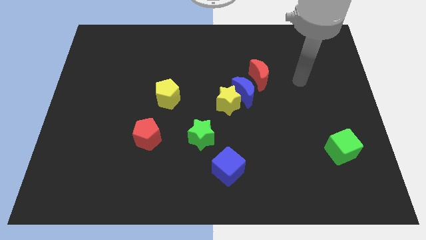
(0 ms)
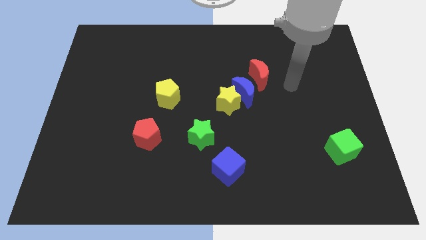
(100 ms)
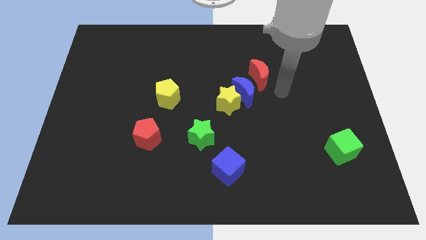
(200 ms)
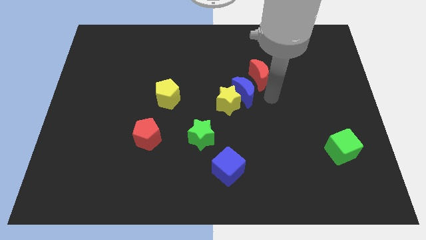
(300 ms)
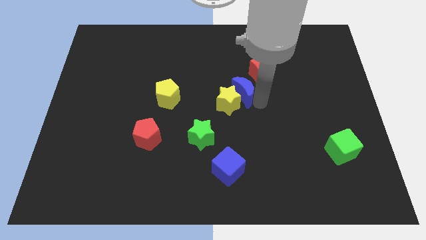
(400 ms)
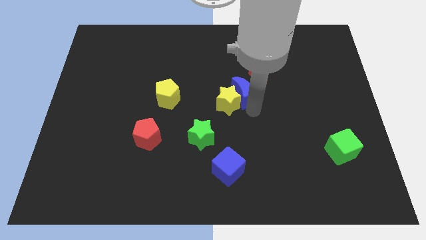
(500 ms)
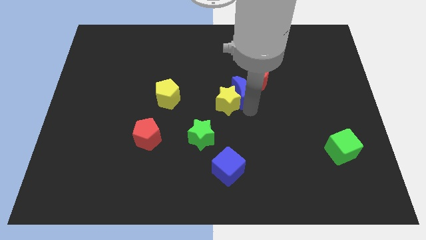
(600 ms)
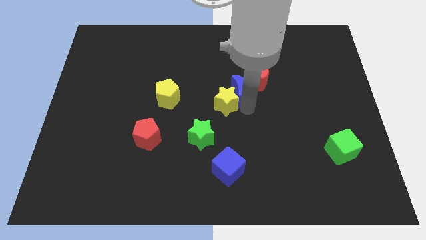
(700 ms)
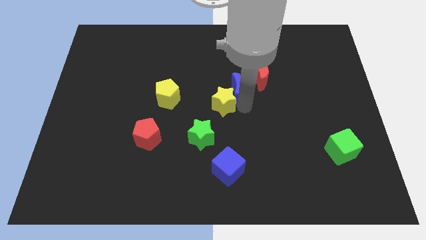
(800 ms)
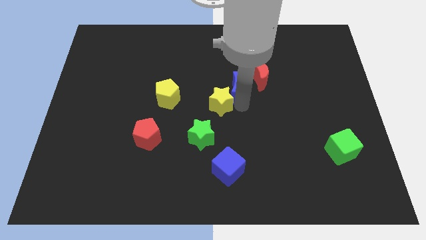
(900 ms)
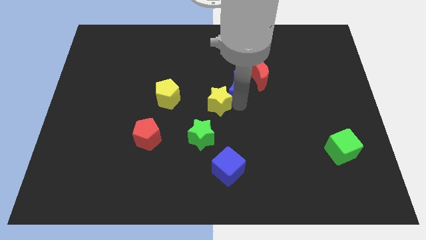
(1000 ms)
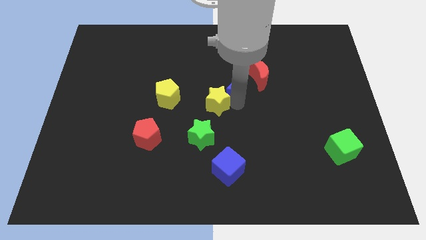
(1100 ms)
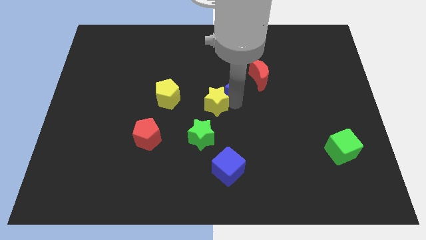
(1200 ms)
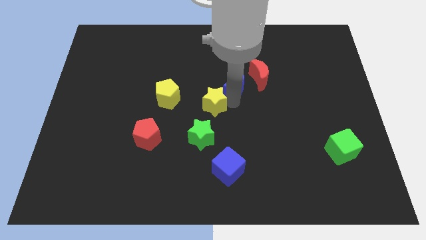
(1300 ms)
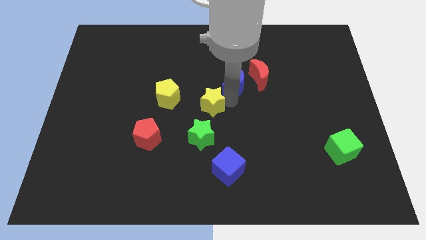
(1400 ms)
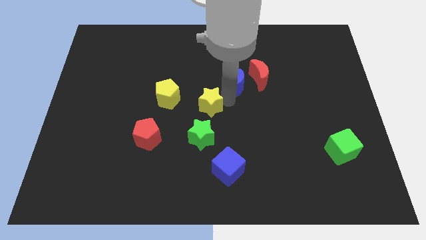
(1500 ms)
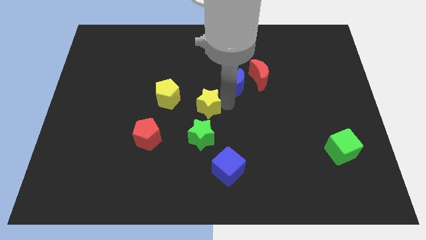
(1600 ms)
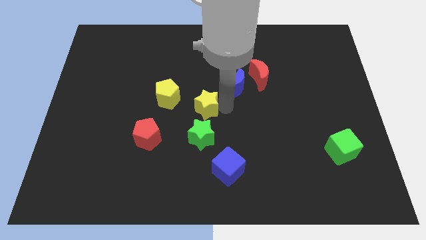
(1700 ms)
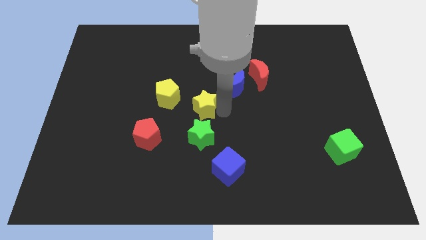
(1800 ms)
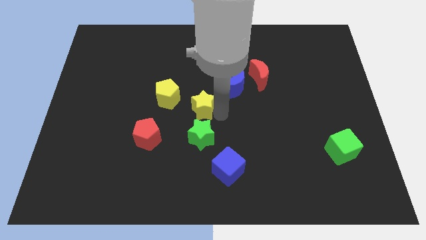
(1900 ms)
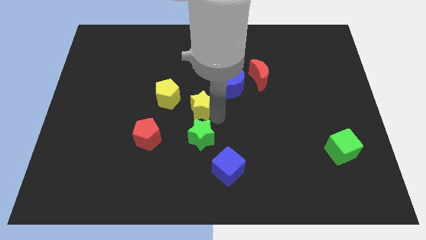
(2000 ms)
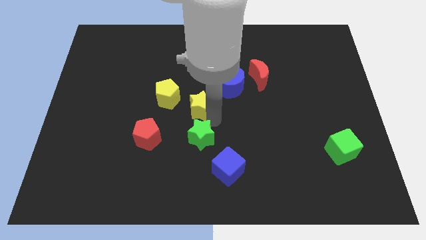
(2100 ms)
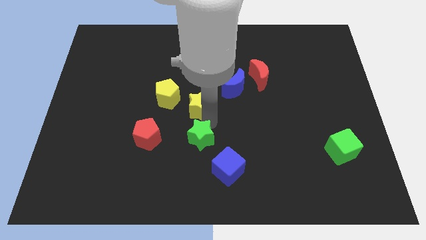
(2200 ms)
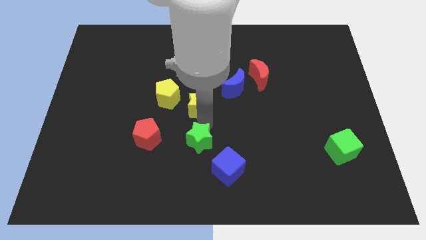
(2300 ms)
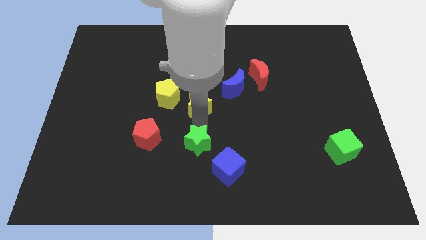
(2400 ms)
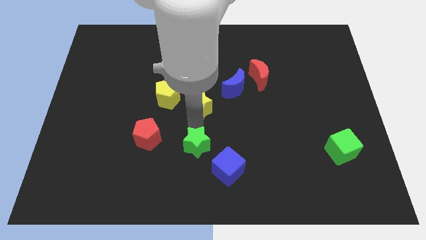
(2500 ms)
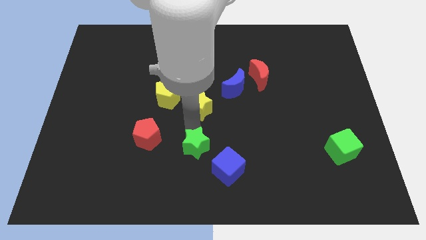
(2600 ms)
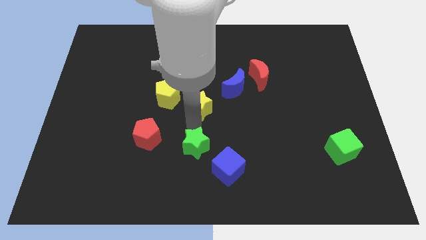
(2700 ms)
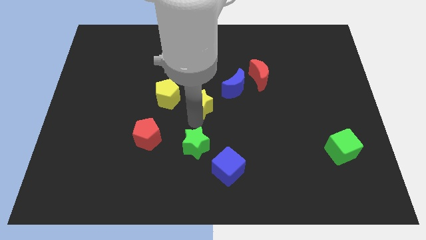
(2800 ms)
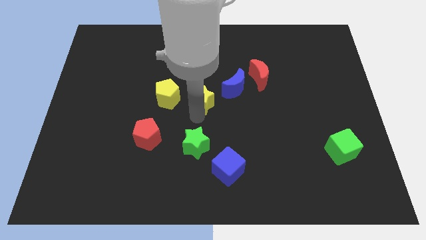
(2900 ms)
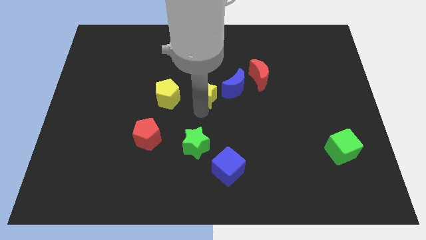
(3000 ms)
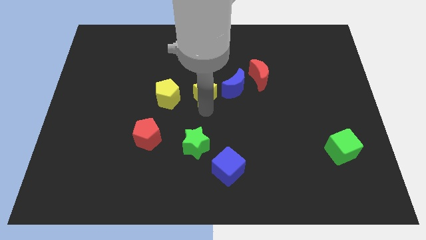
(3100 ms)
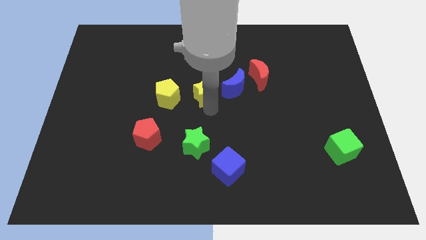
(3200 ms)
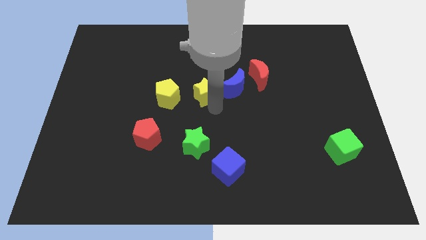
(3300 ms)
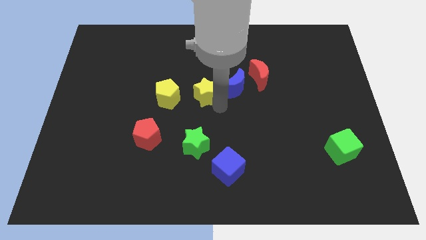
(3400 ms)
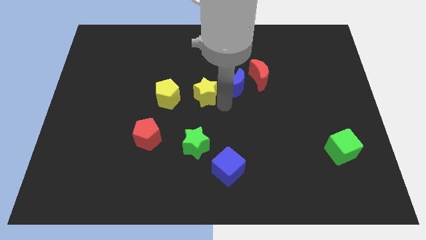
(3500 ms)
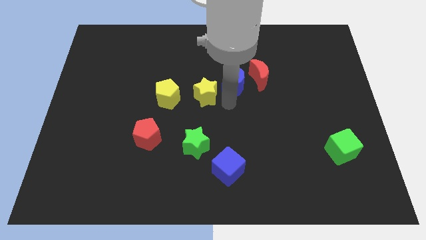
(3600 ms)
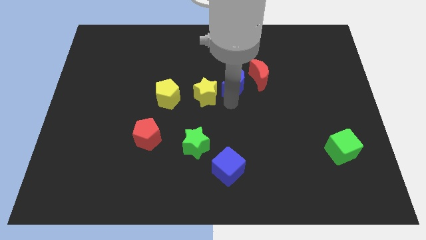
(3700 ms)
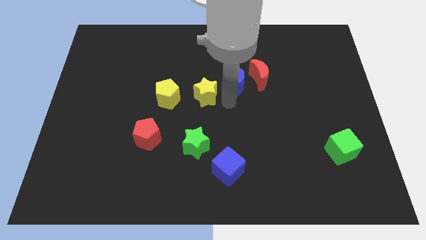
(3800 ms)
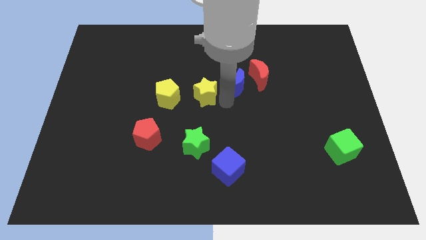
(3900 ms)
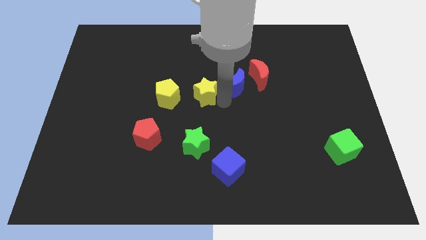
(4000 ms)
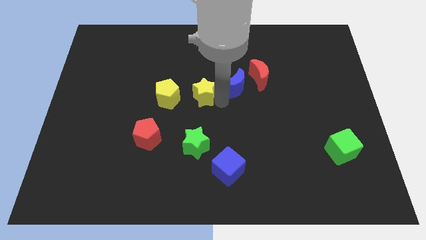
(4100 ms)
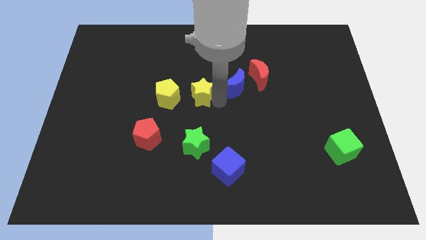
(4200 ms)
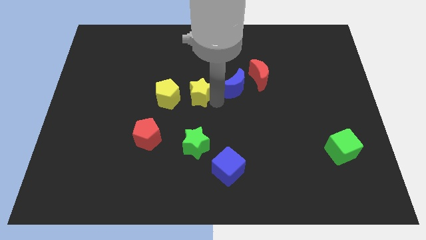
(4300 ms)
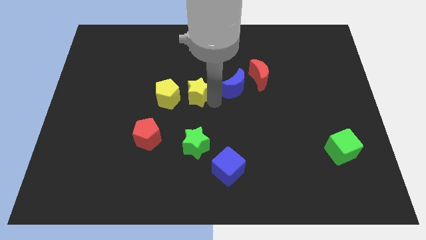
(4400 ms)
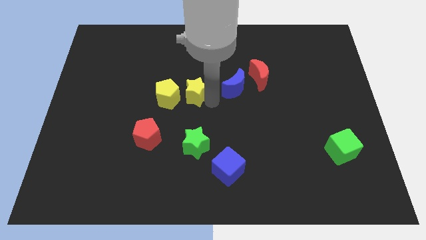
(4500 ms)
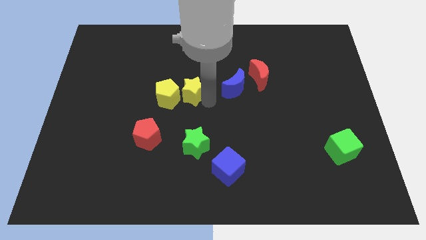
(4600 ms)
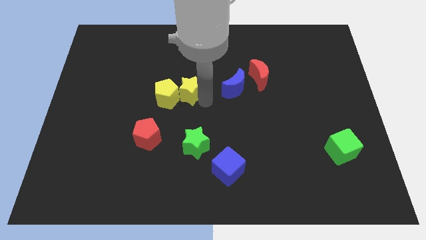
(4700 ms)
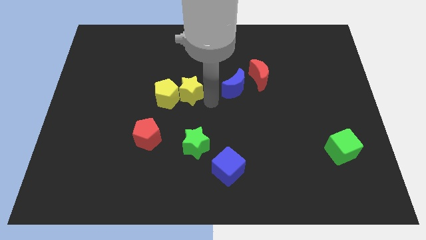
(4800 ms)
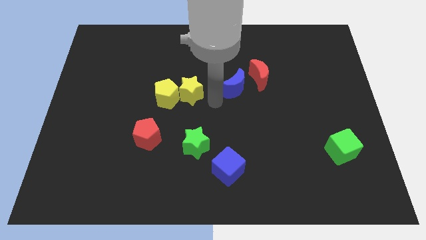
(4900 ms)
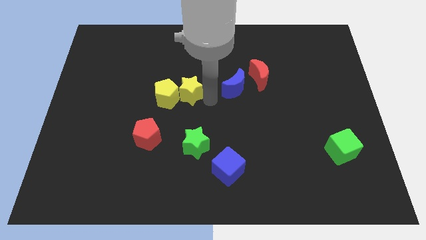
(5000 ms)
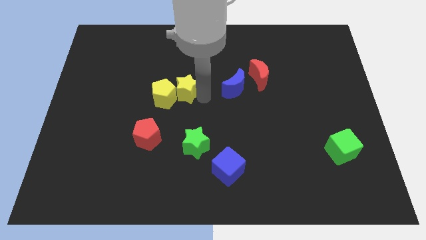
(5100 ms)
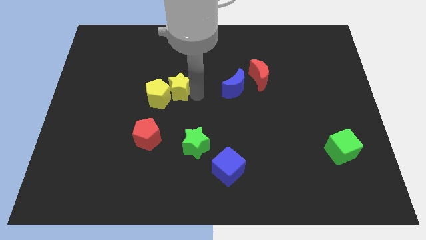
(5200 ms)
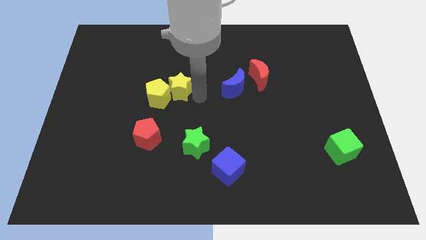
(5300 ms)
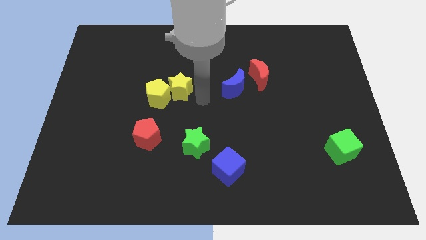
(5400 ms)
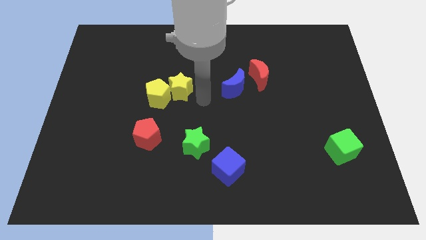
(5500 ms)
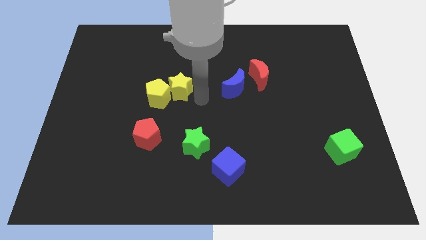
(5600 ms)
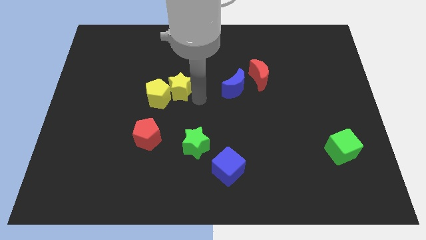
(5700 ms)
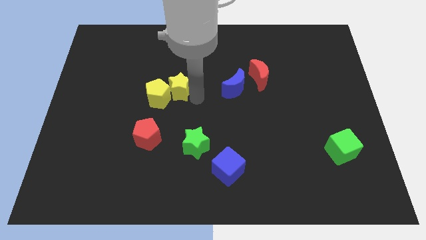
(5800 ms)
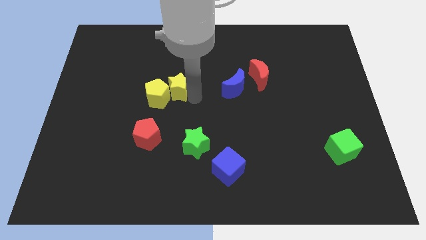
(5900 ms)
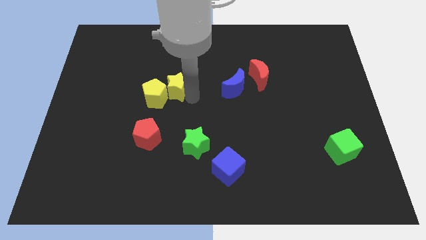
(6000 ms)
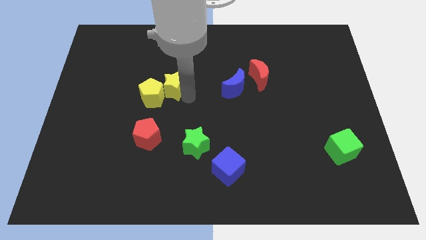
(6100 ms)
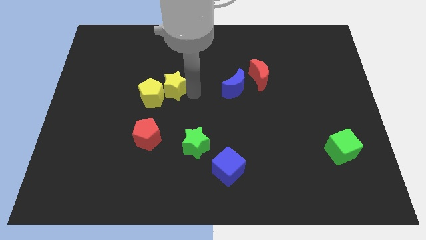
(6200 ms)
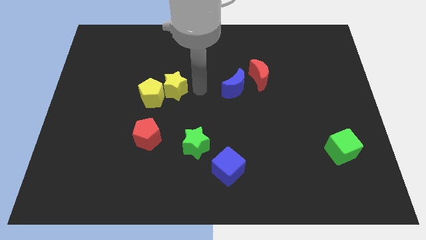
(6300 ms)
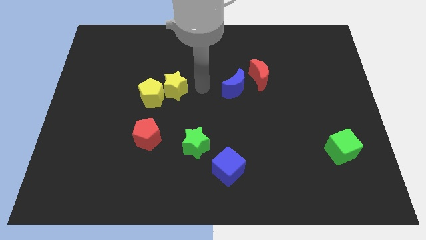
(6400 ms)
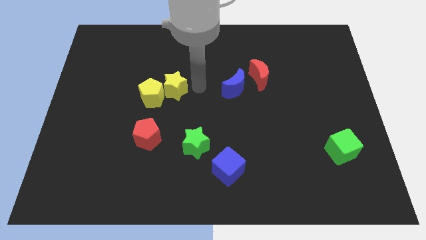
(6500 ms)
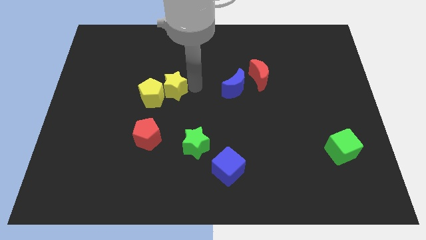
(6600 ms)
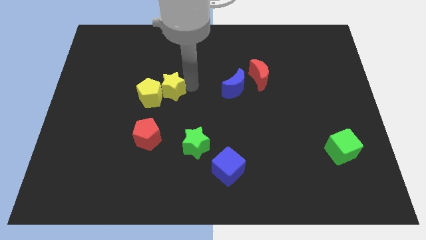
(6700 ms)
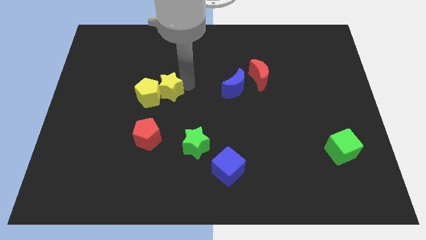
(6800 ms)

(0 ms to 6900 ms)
push the yellow star above the red pentagon
